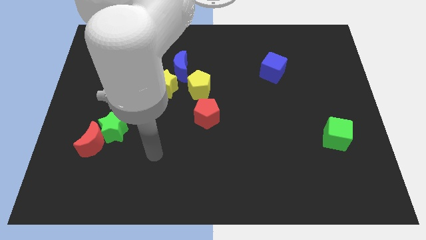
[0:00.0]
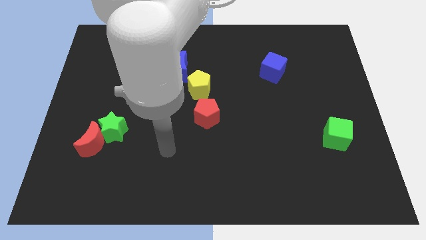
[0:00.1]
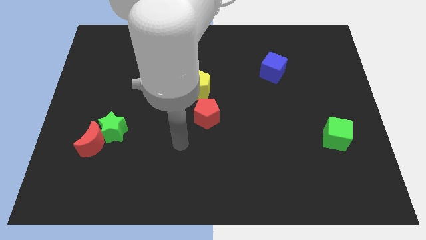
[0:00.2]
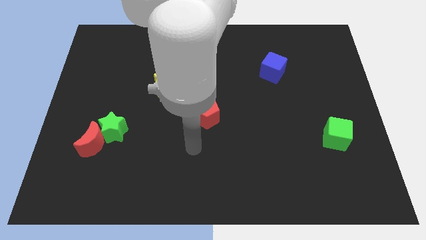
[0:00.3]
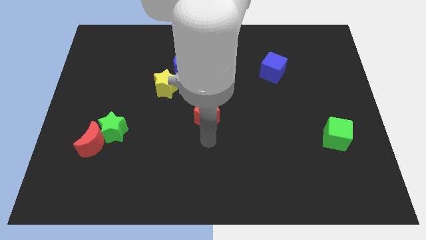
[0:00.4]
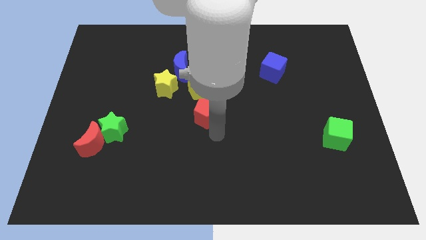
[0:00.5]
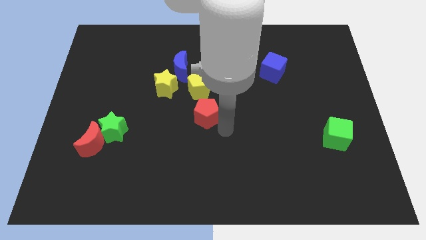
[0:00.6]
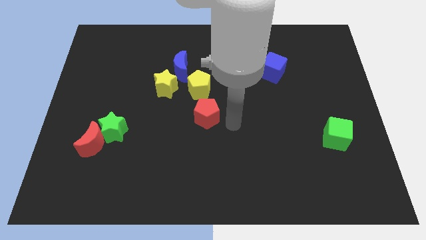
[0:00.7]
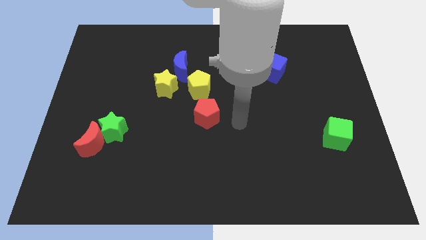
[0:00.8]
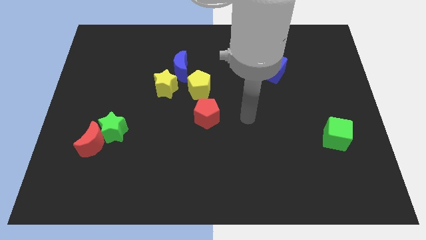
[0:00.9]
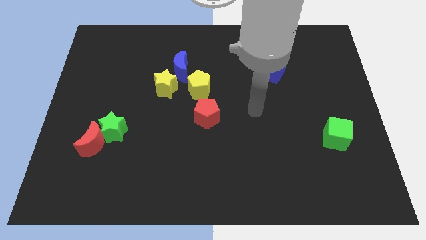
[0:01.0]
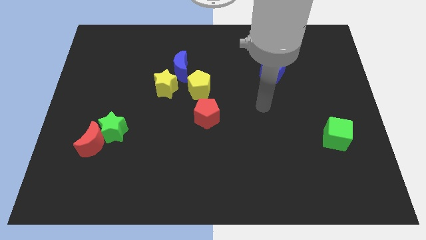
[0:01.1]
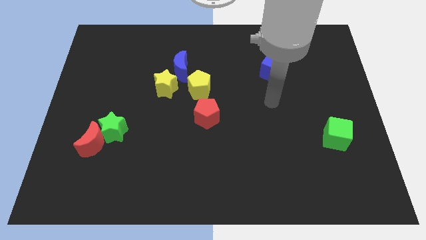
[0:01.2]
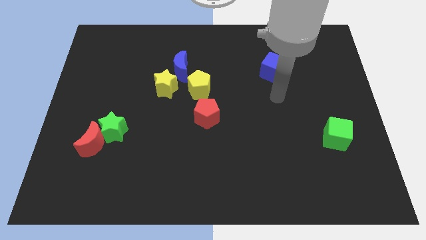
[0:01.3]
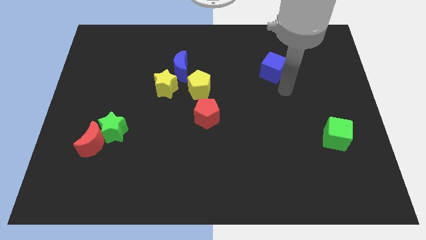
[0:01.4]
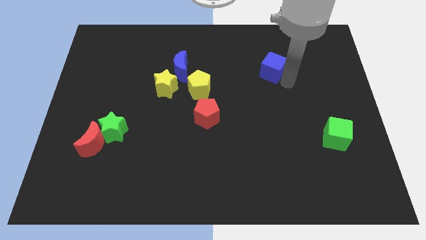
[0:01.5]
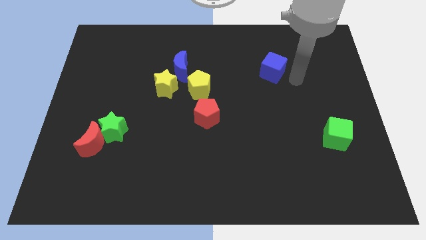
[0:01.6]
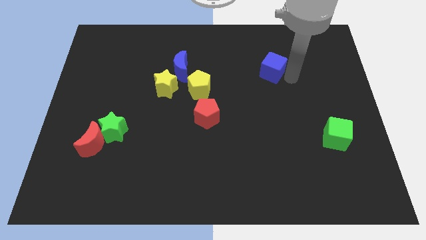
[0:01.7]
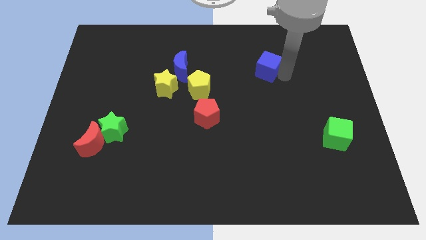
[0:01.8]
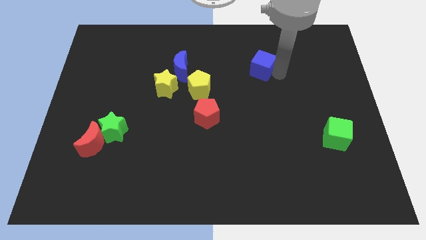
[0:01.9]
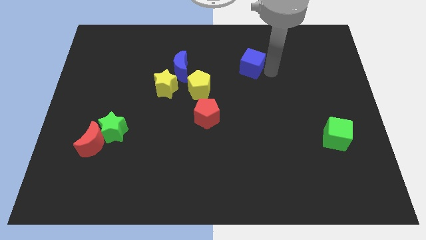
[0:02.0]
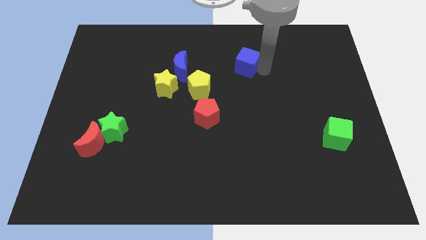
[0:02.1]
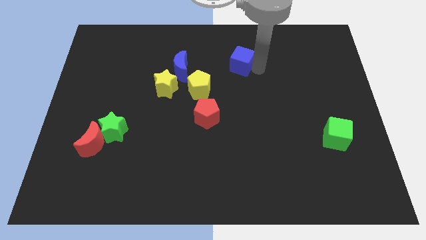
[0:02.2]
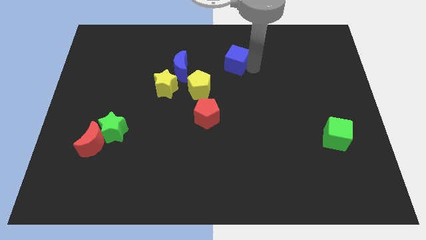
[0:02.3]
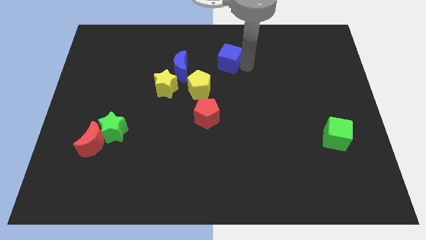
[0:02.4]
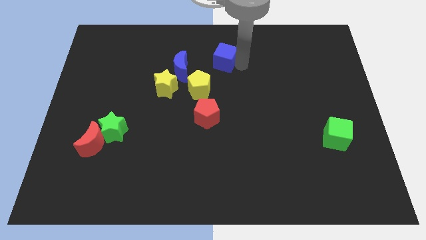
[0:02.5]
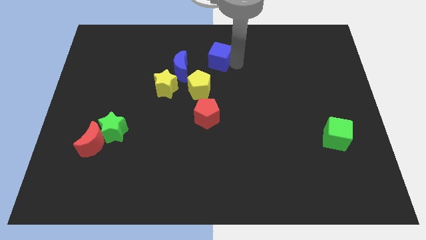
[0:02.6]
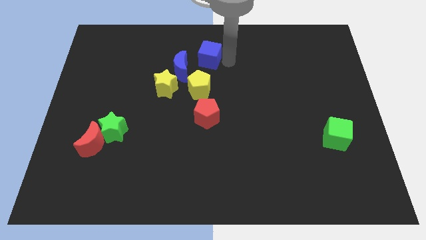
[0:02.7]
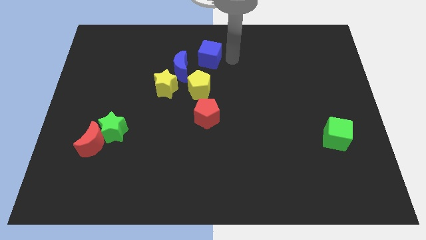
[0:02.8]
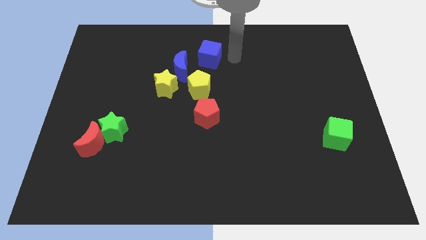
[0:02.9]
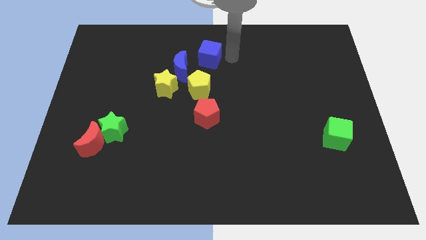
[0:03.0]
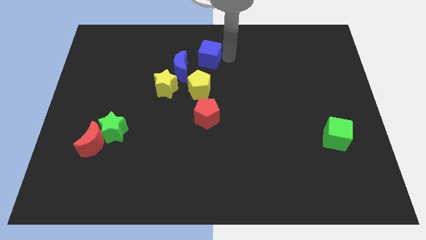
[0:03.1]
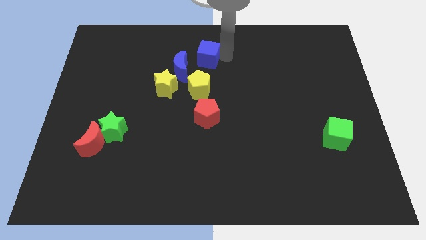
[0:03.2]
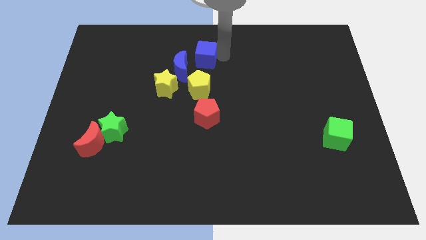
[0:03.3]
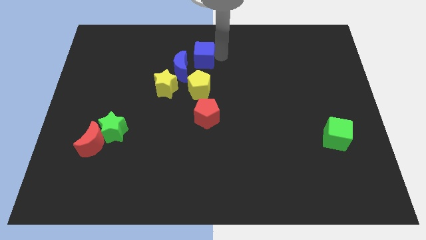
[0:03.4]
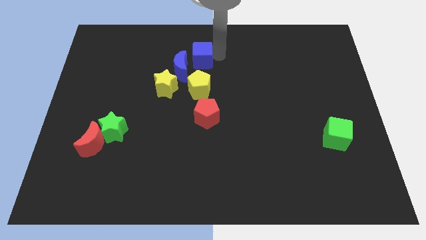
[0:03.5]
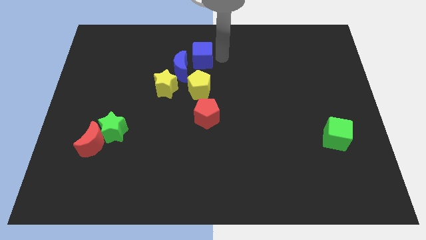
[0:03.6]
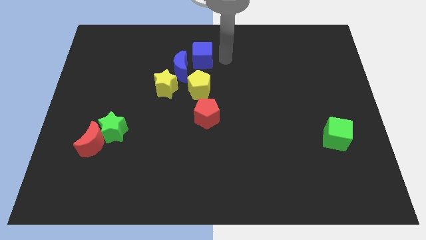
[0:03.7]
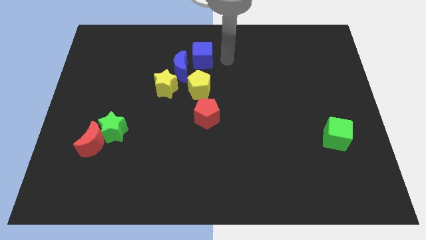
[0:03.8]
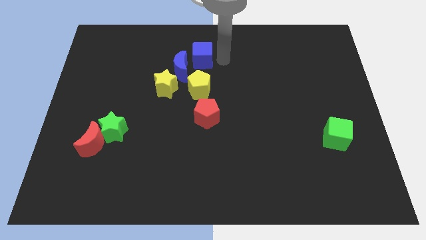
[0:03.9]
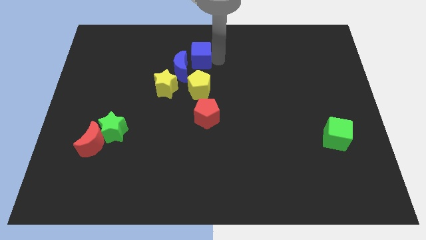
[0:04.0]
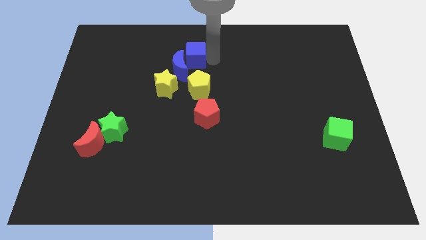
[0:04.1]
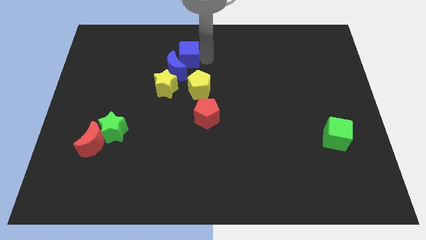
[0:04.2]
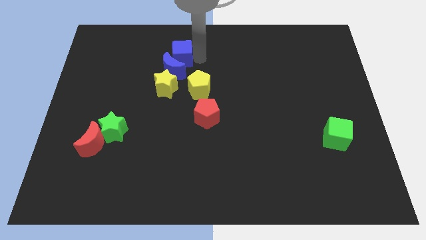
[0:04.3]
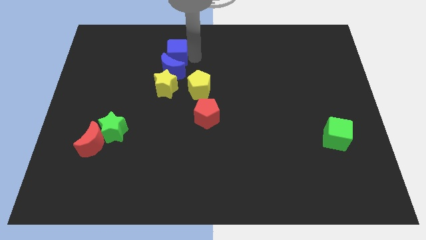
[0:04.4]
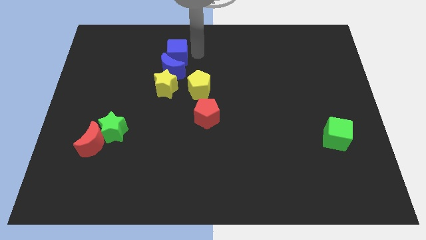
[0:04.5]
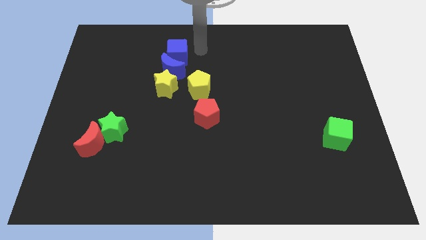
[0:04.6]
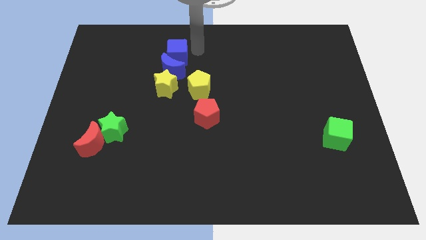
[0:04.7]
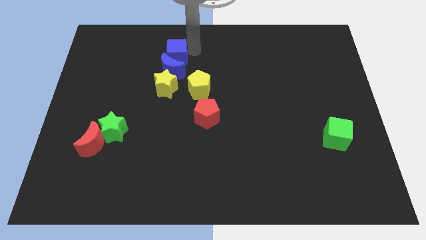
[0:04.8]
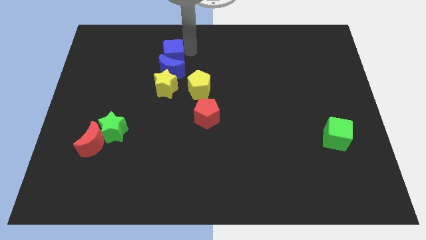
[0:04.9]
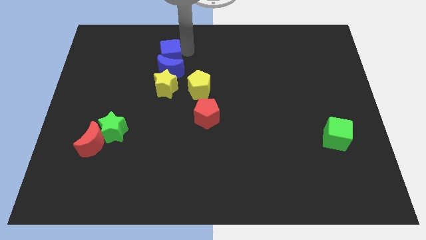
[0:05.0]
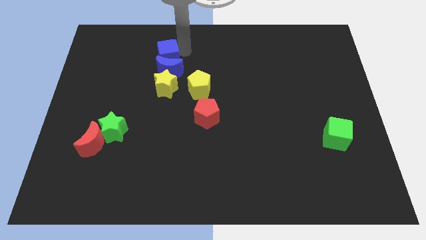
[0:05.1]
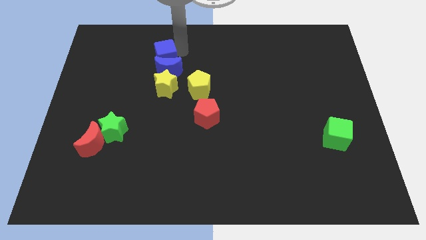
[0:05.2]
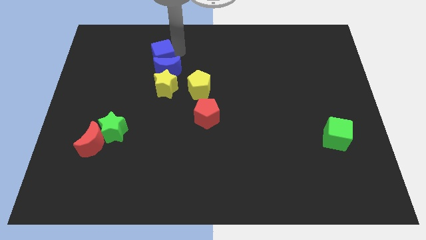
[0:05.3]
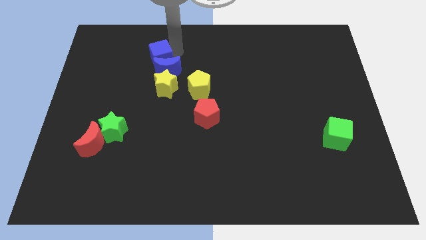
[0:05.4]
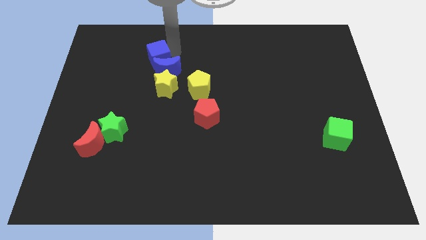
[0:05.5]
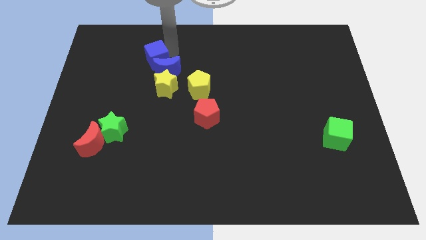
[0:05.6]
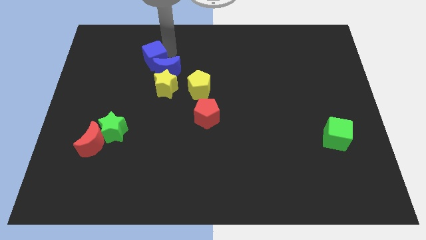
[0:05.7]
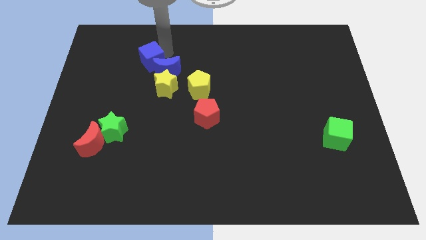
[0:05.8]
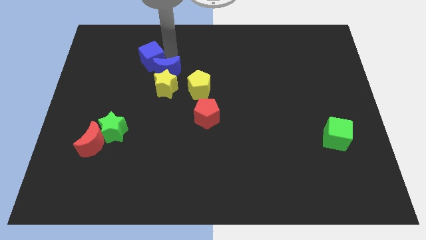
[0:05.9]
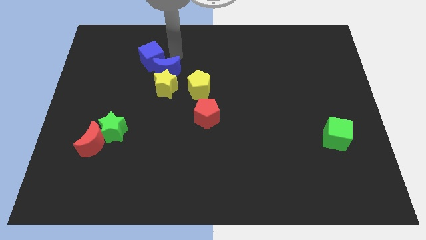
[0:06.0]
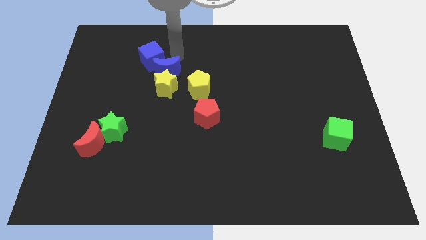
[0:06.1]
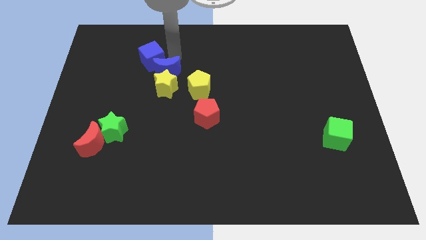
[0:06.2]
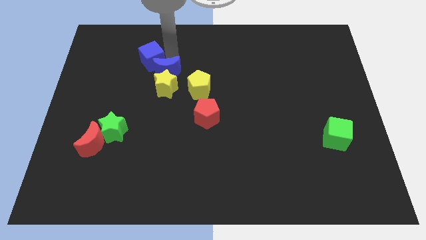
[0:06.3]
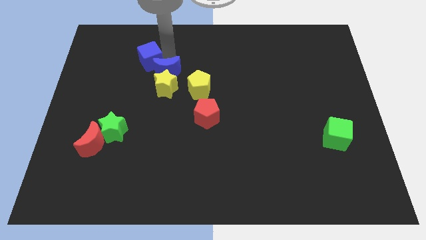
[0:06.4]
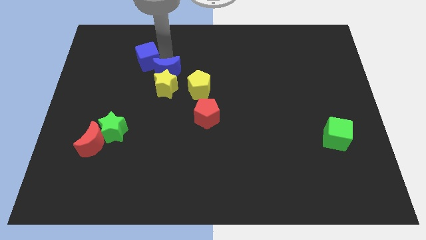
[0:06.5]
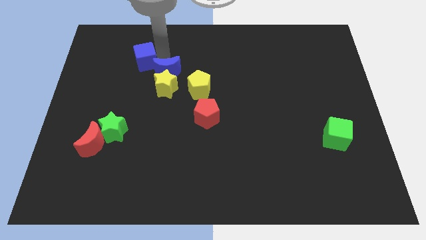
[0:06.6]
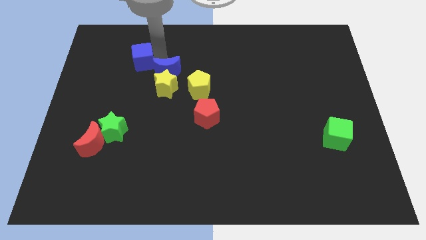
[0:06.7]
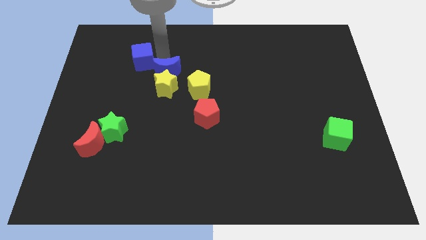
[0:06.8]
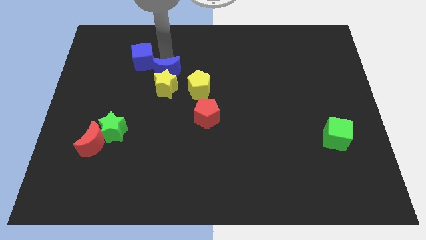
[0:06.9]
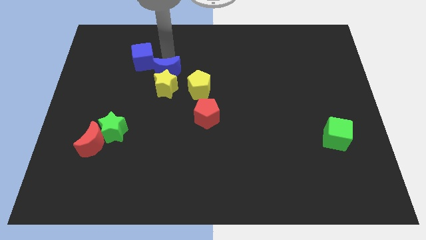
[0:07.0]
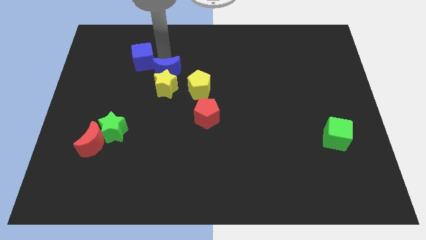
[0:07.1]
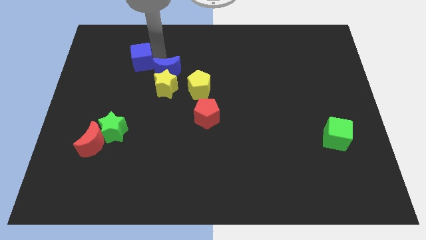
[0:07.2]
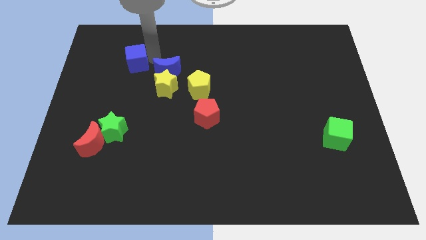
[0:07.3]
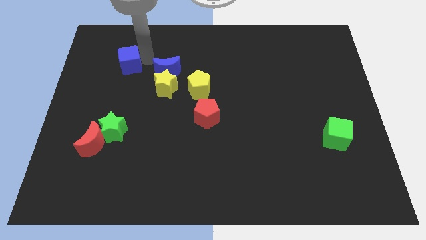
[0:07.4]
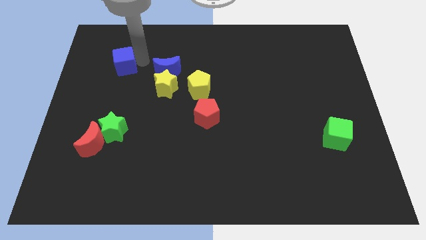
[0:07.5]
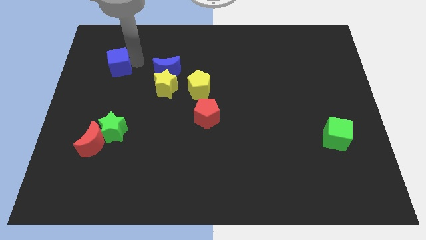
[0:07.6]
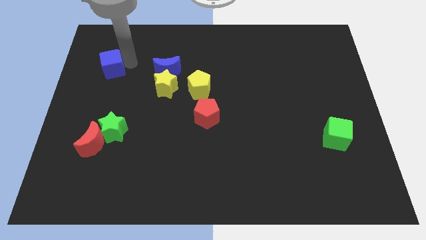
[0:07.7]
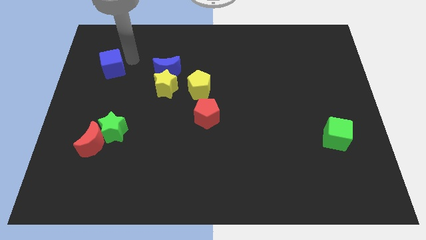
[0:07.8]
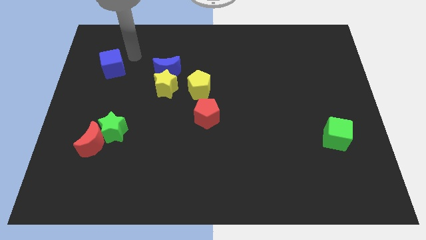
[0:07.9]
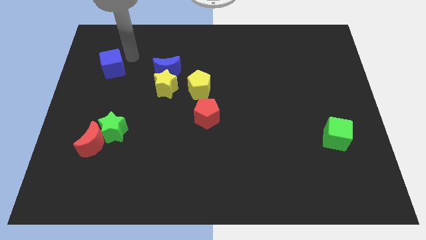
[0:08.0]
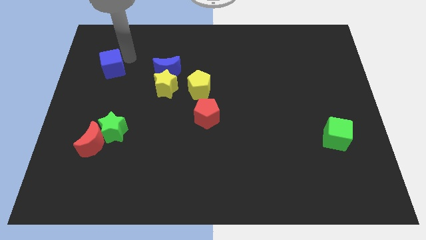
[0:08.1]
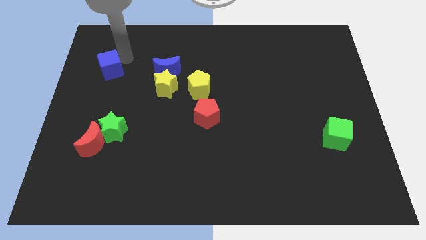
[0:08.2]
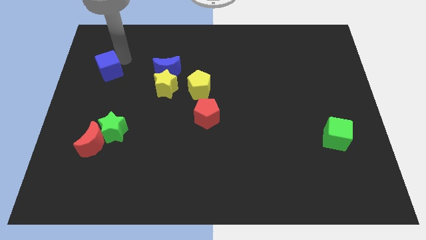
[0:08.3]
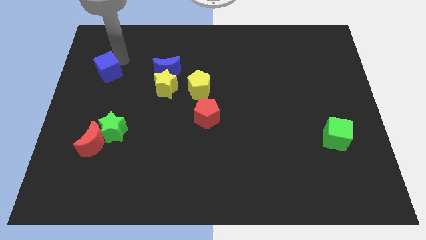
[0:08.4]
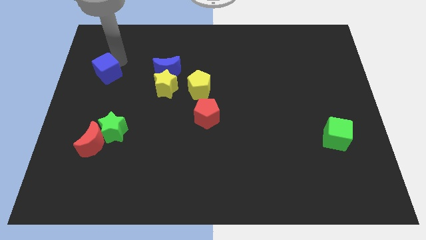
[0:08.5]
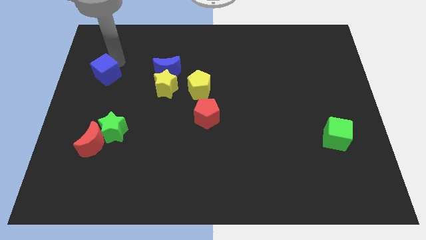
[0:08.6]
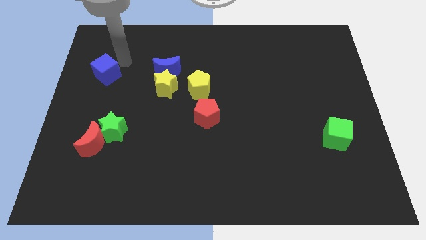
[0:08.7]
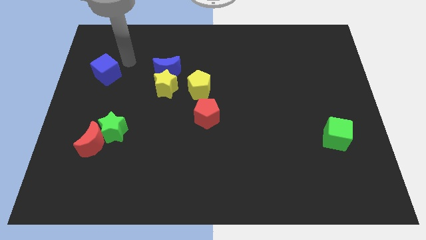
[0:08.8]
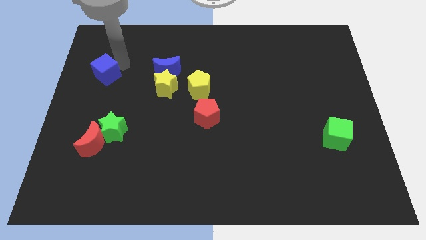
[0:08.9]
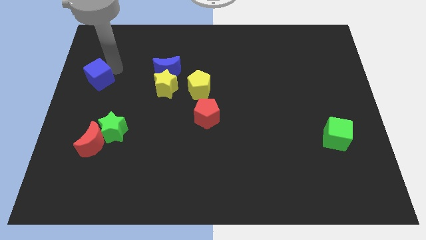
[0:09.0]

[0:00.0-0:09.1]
push the blue cube to the left side of the board
